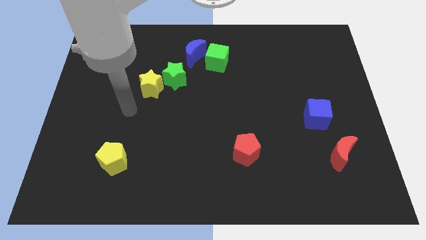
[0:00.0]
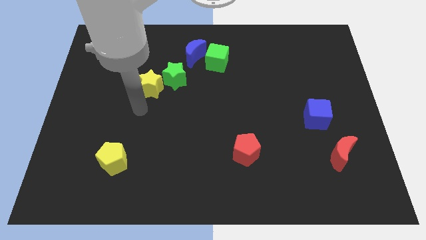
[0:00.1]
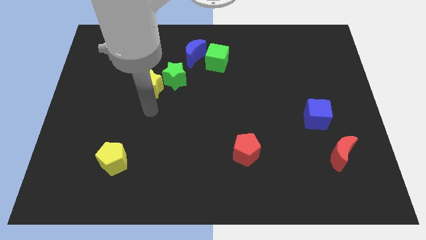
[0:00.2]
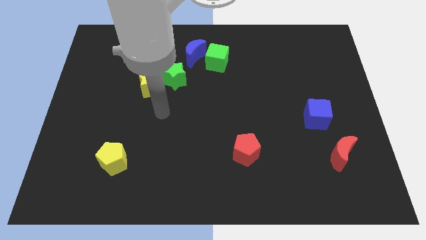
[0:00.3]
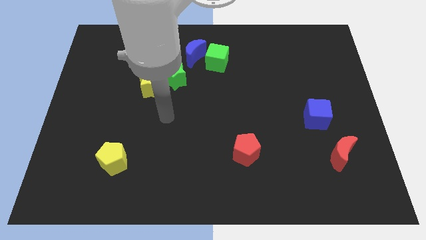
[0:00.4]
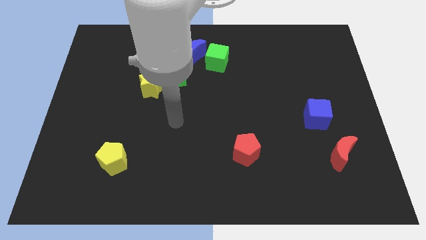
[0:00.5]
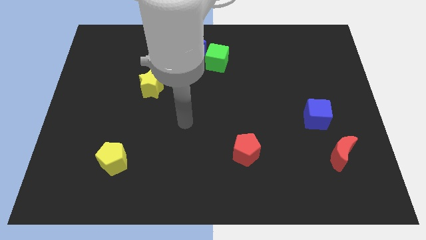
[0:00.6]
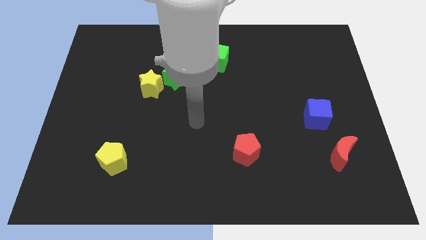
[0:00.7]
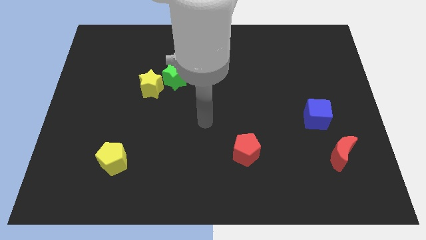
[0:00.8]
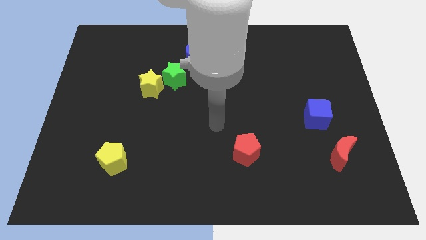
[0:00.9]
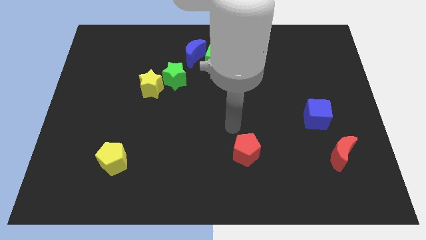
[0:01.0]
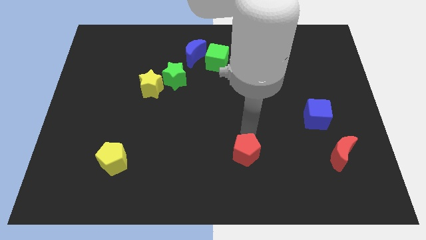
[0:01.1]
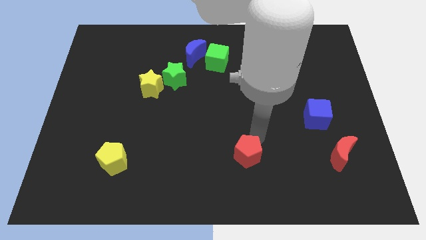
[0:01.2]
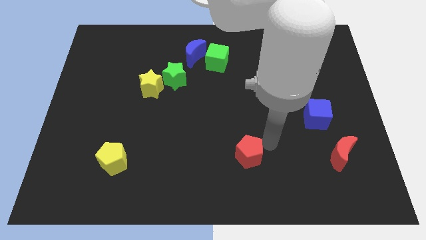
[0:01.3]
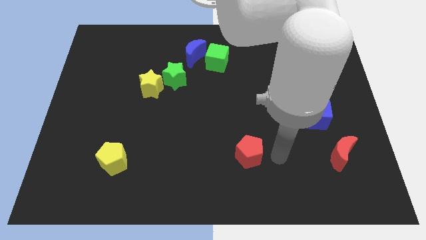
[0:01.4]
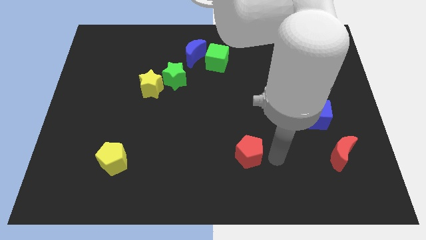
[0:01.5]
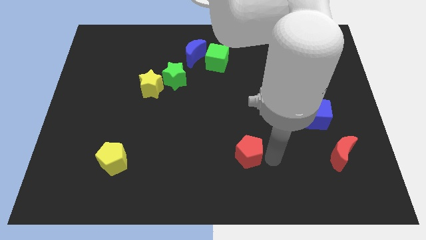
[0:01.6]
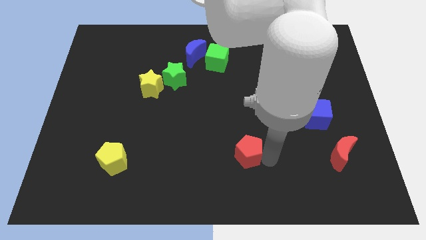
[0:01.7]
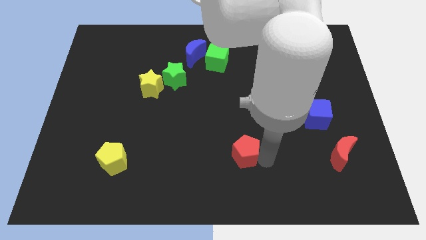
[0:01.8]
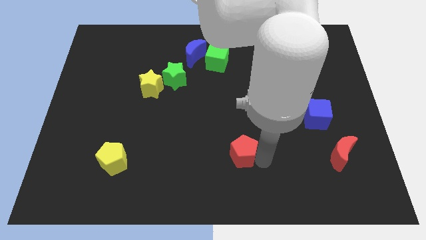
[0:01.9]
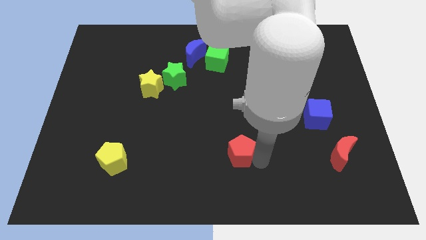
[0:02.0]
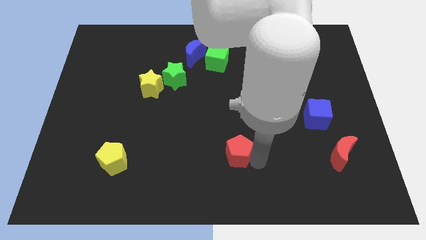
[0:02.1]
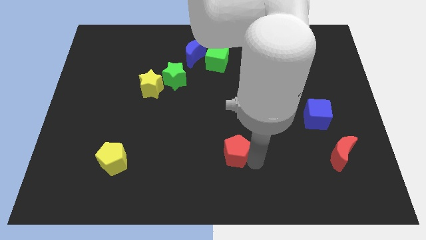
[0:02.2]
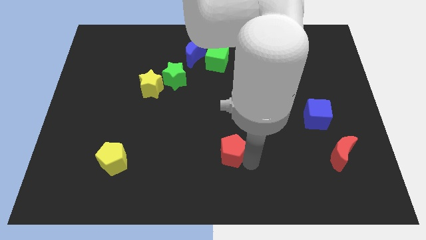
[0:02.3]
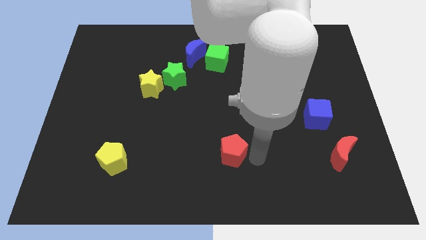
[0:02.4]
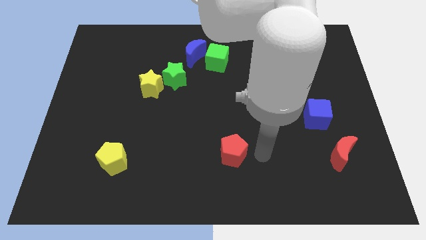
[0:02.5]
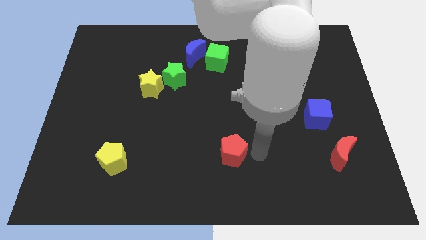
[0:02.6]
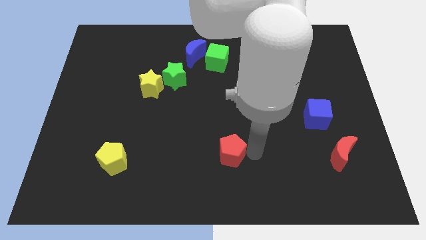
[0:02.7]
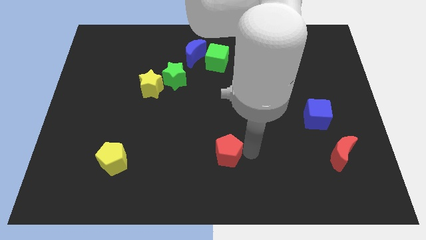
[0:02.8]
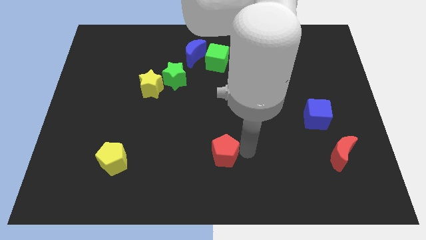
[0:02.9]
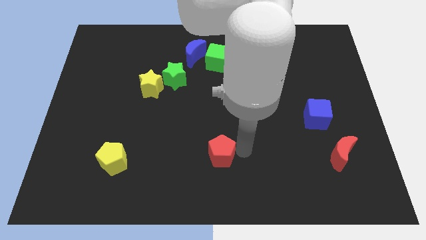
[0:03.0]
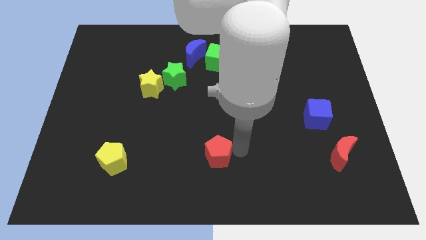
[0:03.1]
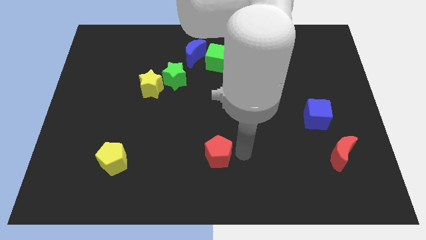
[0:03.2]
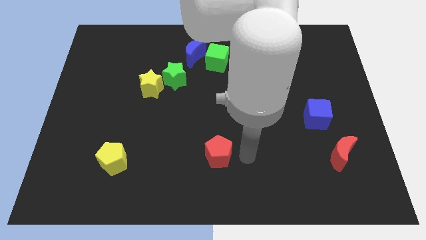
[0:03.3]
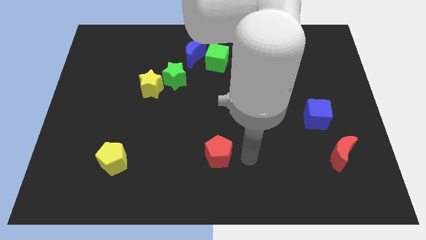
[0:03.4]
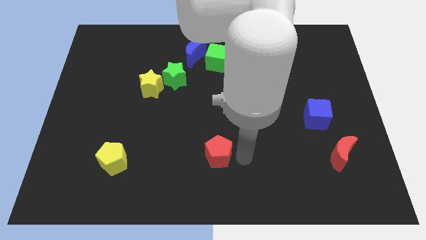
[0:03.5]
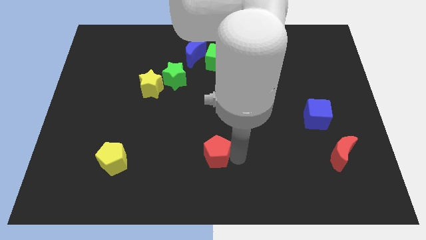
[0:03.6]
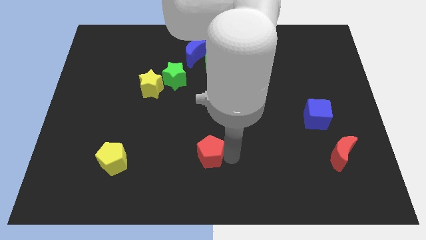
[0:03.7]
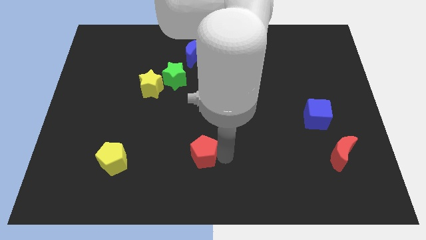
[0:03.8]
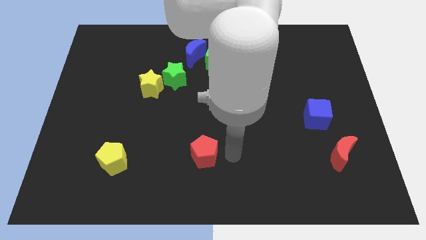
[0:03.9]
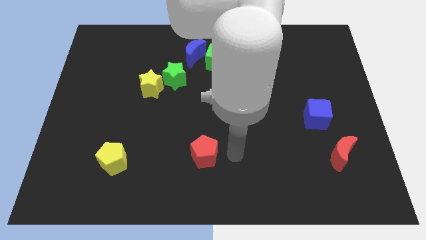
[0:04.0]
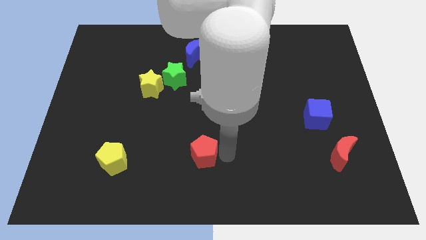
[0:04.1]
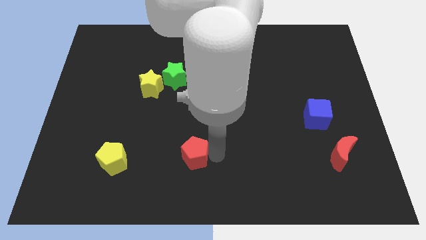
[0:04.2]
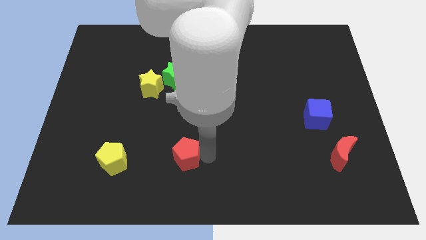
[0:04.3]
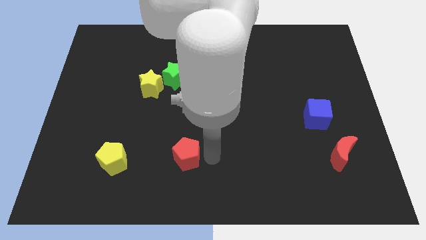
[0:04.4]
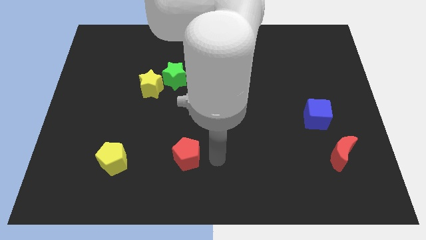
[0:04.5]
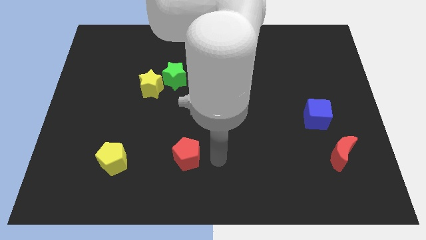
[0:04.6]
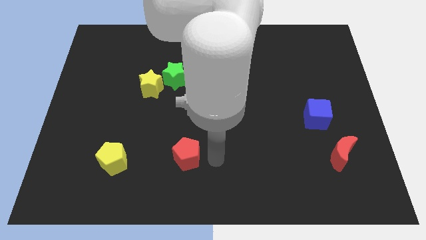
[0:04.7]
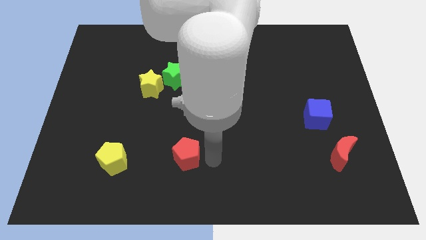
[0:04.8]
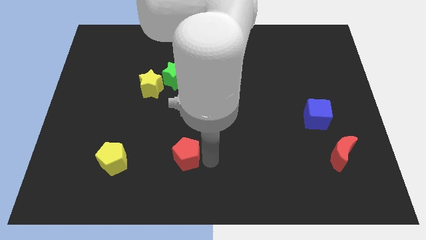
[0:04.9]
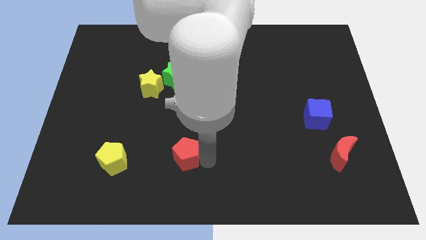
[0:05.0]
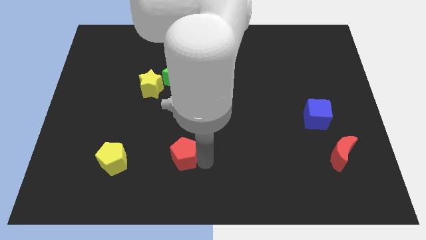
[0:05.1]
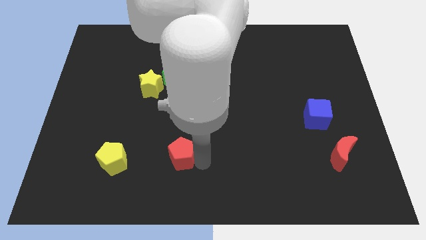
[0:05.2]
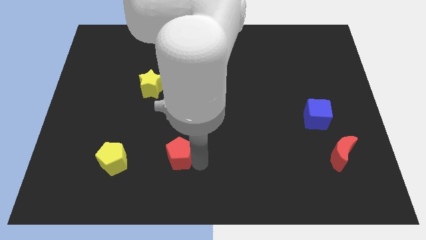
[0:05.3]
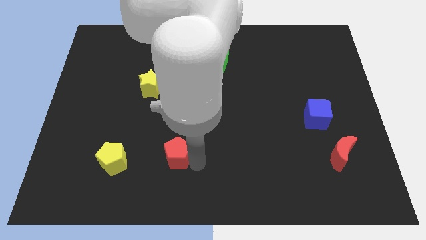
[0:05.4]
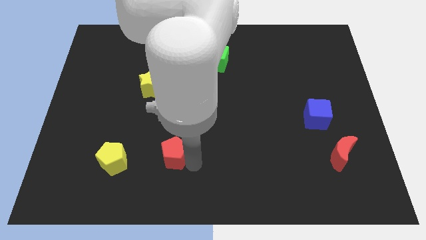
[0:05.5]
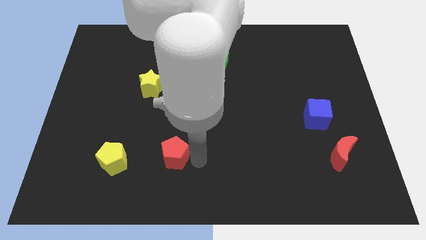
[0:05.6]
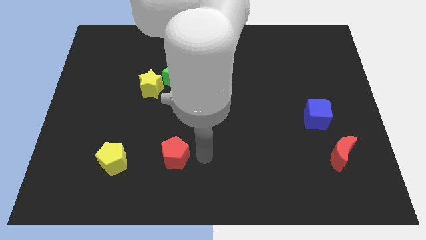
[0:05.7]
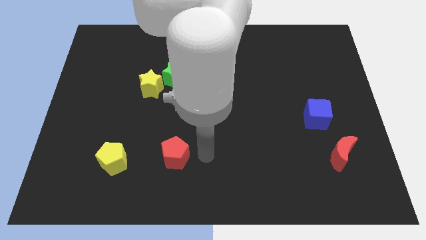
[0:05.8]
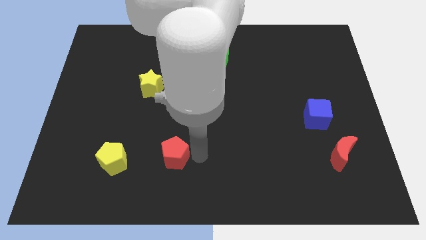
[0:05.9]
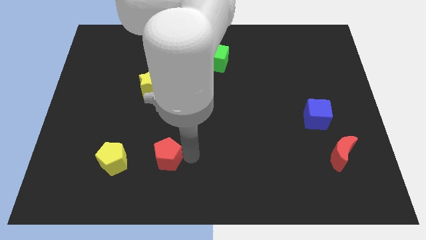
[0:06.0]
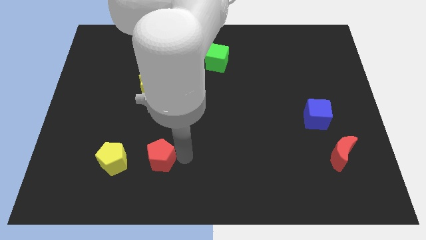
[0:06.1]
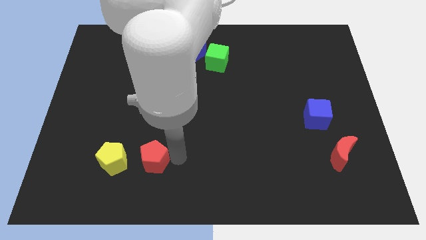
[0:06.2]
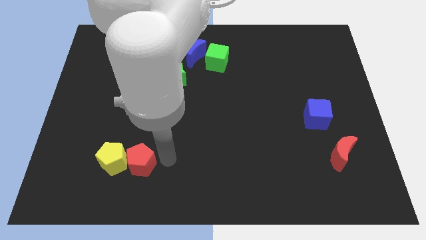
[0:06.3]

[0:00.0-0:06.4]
push the red pentagon next to the yellow pentagon

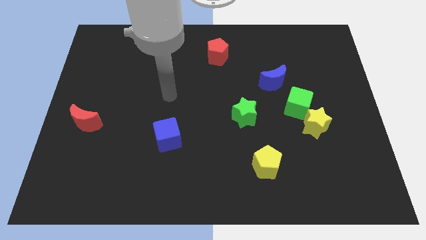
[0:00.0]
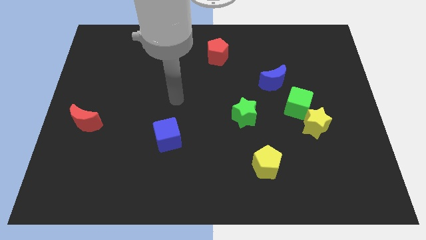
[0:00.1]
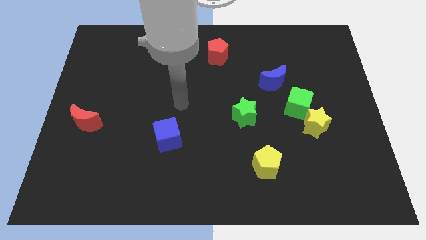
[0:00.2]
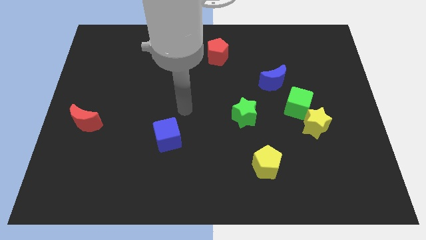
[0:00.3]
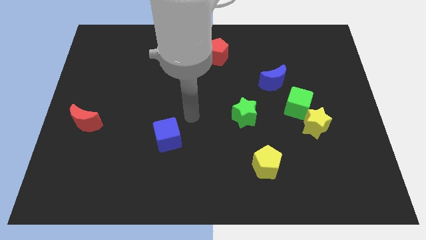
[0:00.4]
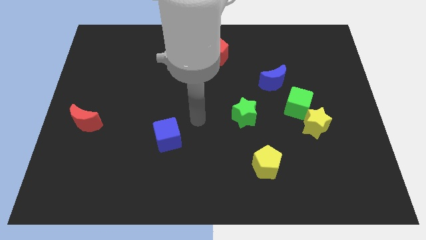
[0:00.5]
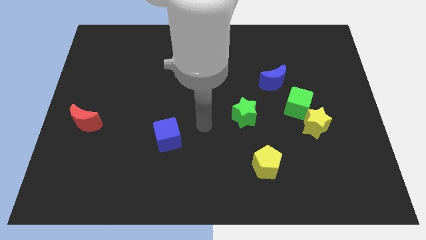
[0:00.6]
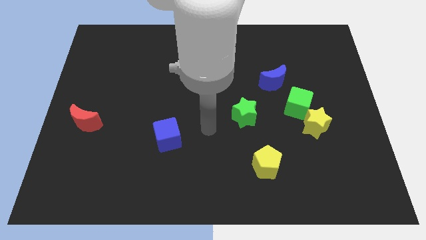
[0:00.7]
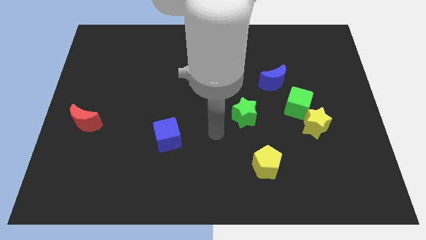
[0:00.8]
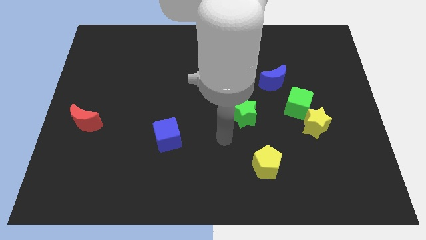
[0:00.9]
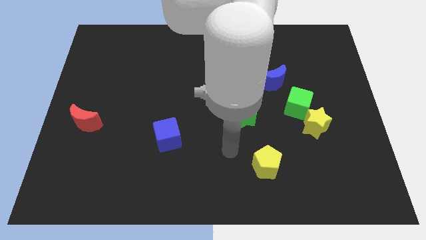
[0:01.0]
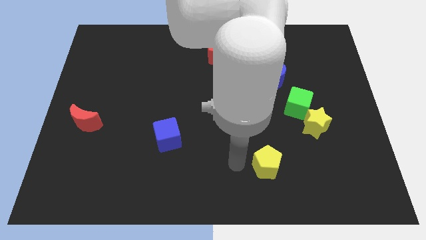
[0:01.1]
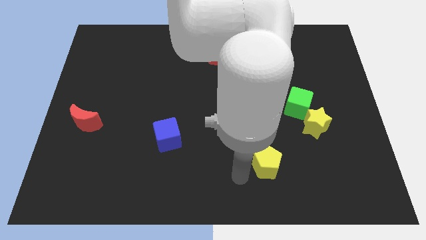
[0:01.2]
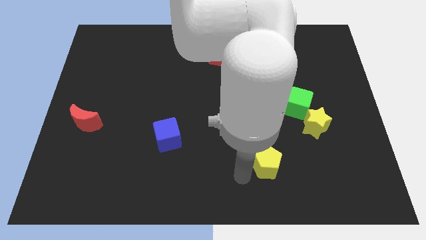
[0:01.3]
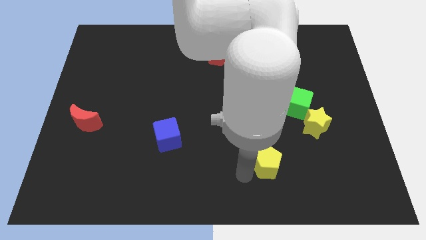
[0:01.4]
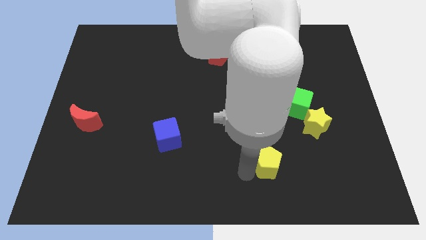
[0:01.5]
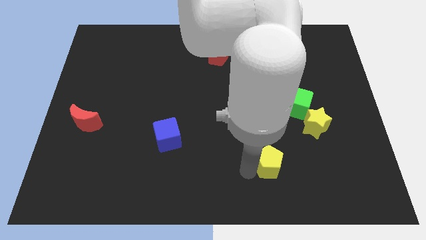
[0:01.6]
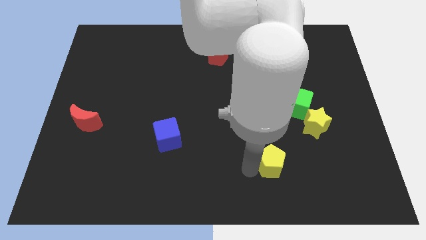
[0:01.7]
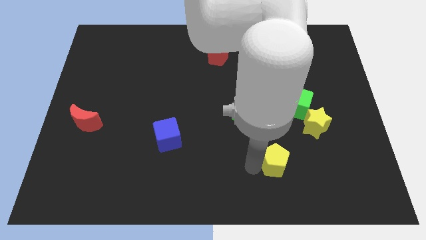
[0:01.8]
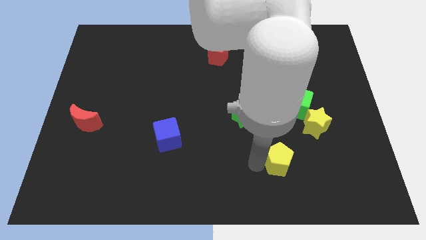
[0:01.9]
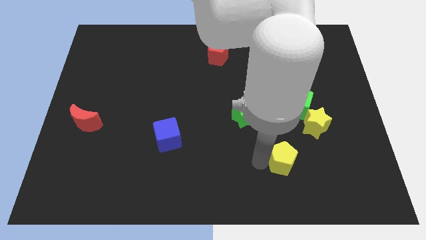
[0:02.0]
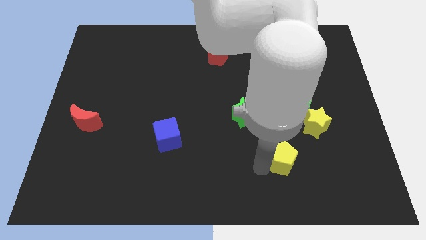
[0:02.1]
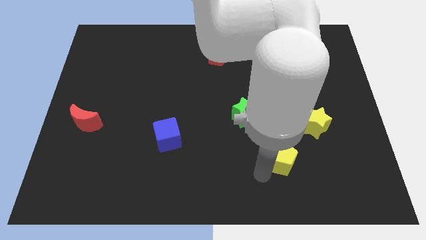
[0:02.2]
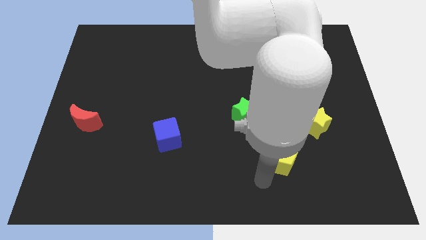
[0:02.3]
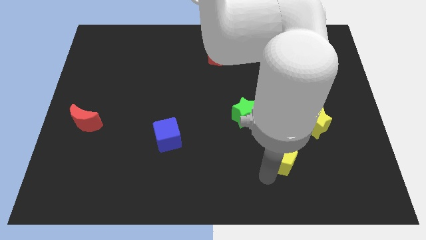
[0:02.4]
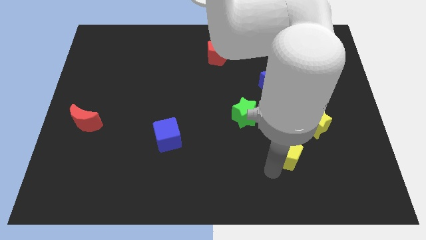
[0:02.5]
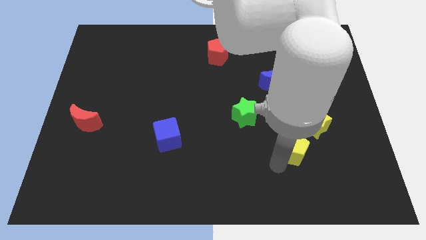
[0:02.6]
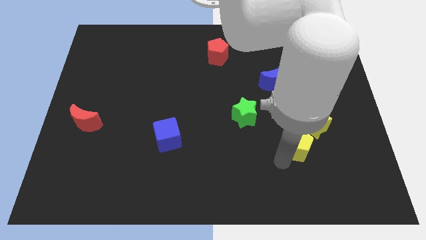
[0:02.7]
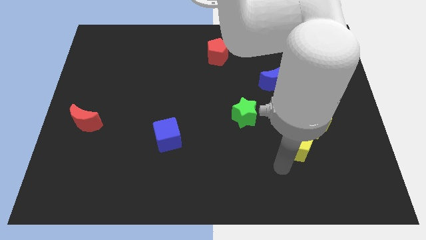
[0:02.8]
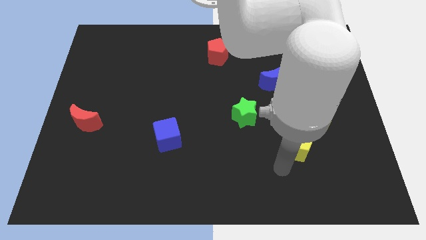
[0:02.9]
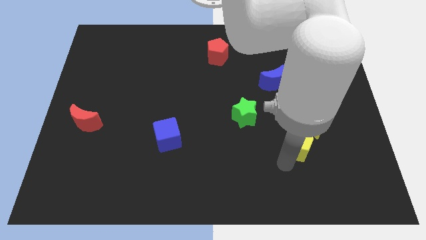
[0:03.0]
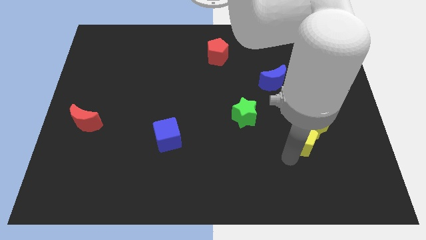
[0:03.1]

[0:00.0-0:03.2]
move the yellow pentagon close to the yellow star
